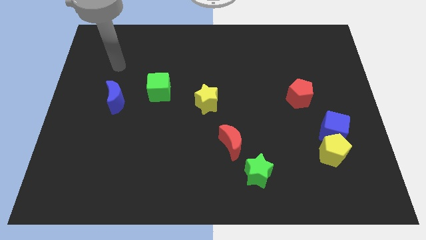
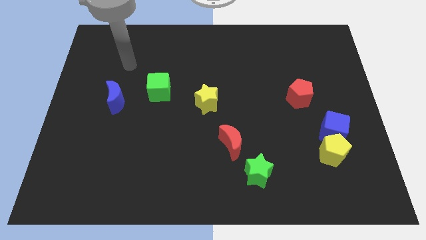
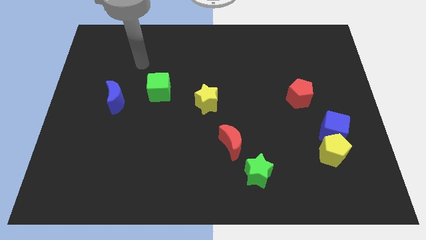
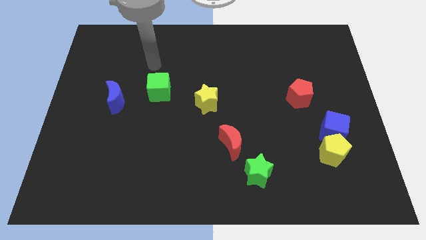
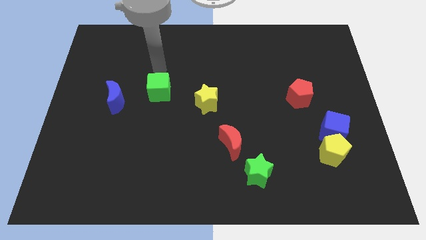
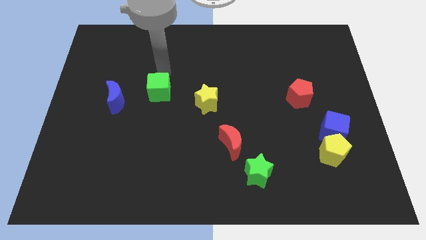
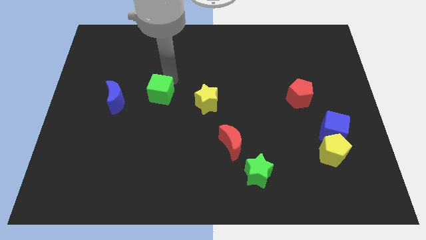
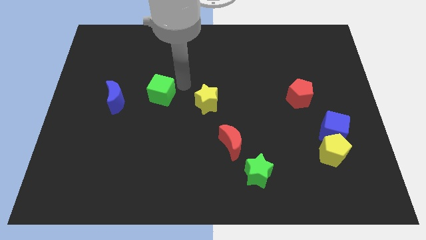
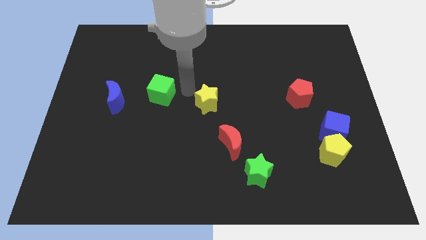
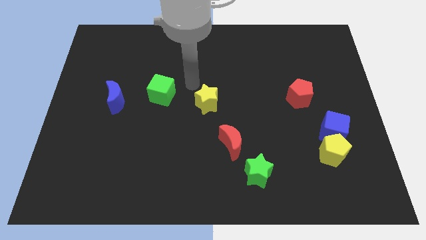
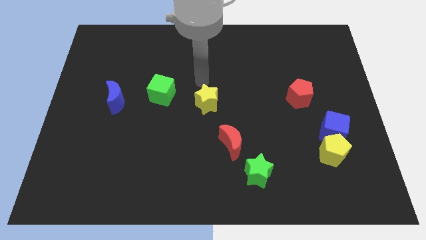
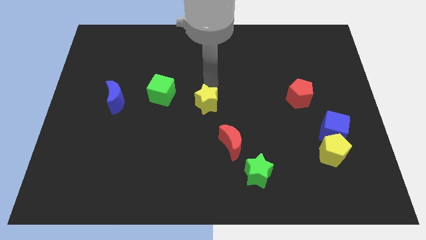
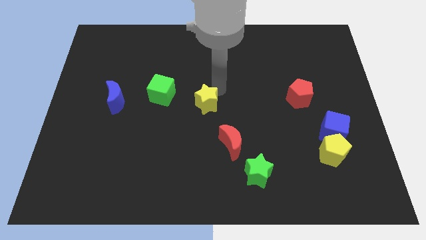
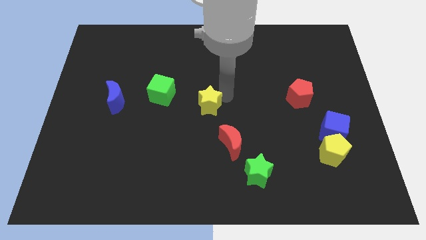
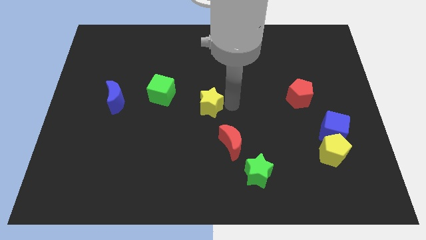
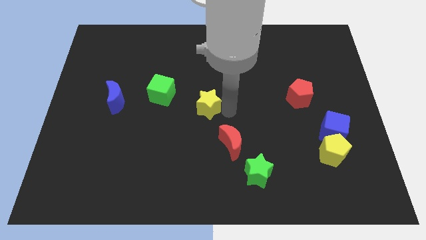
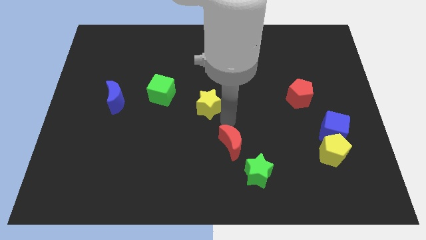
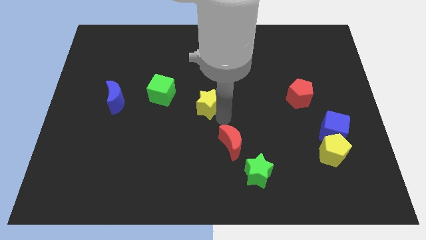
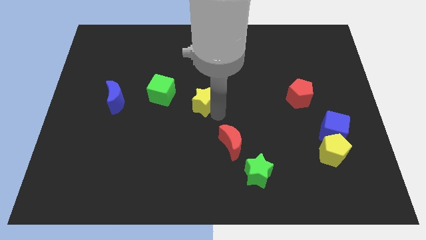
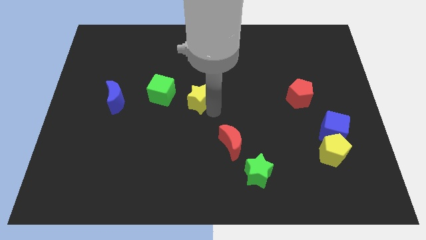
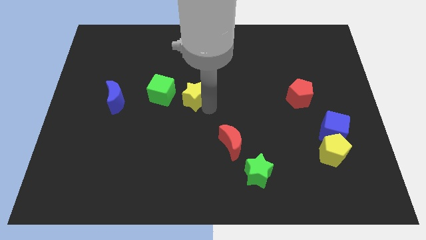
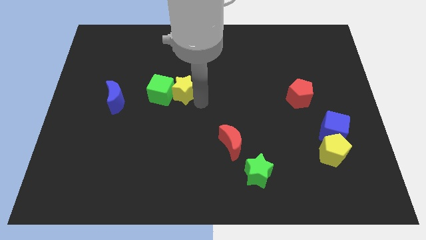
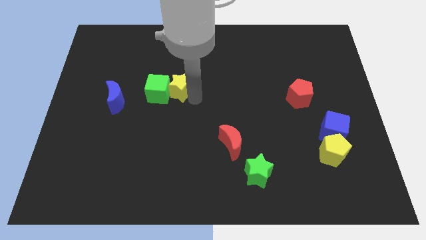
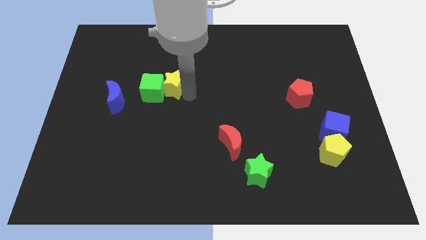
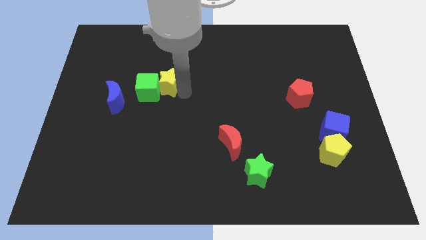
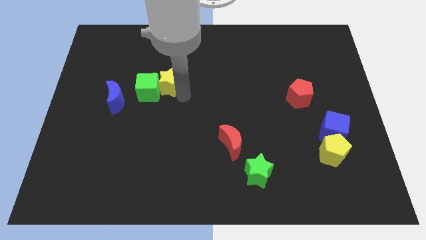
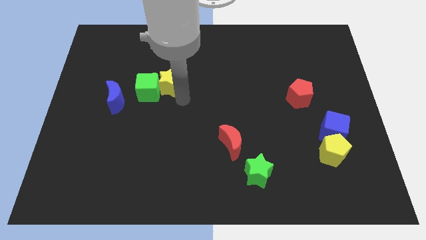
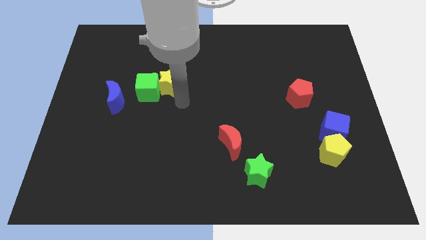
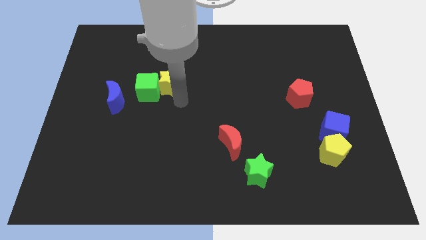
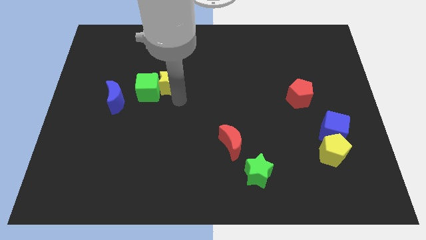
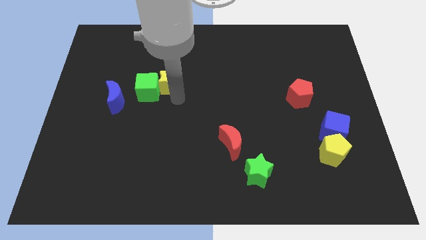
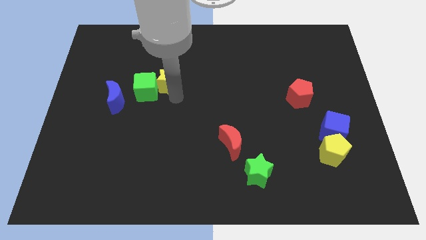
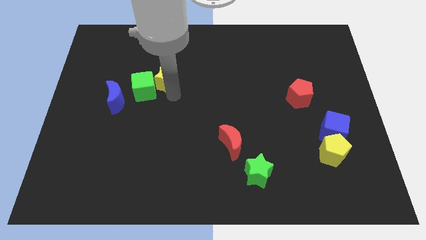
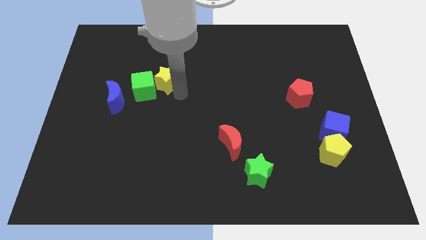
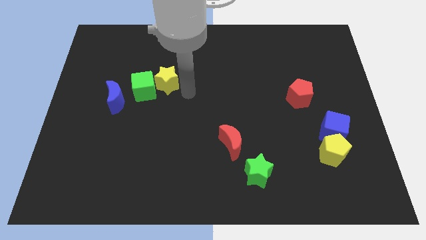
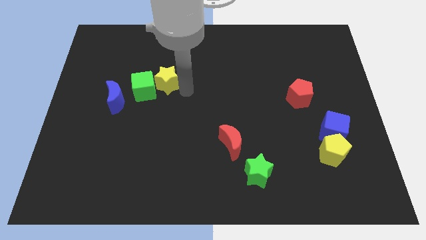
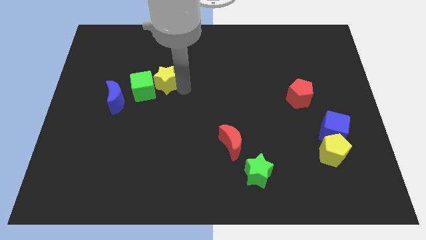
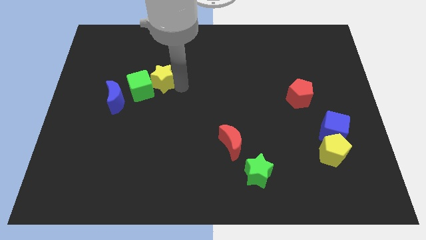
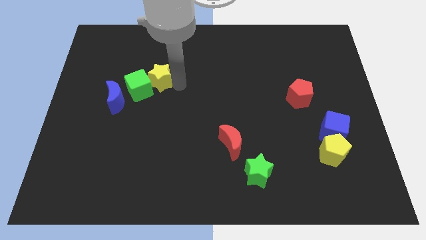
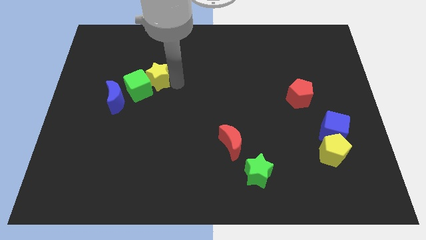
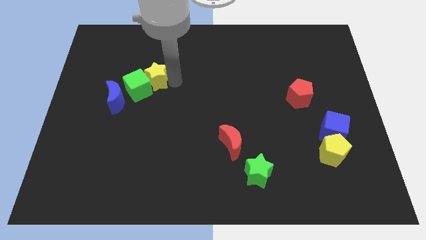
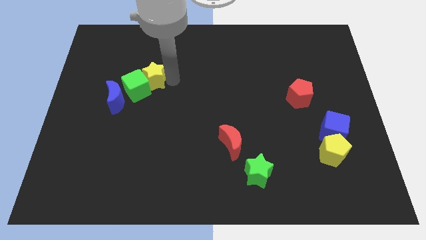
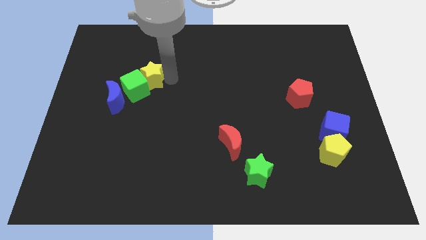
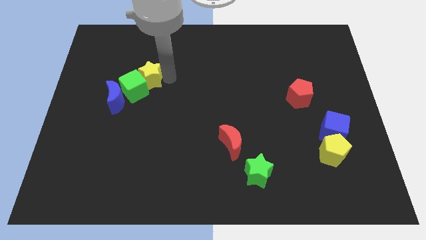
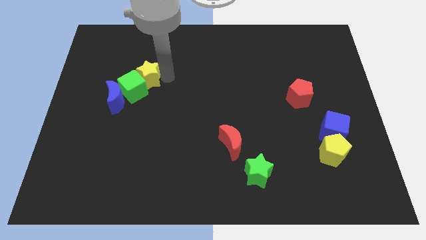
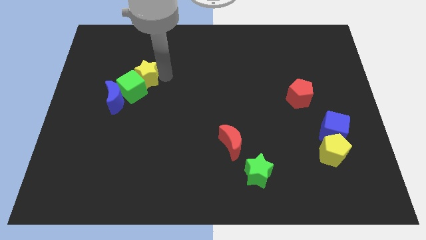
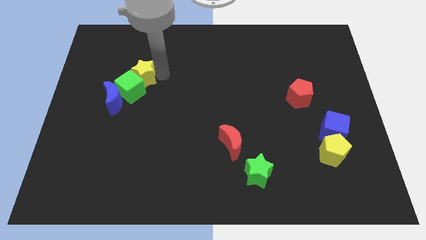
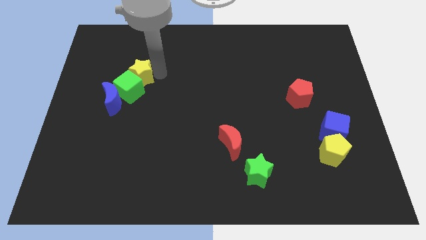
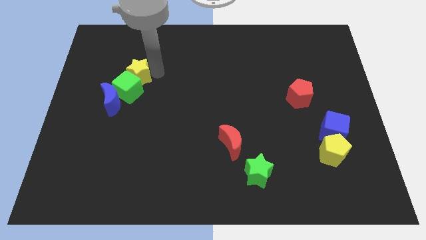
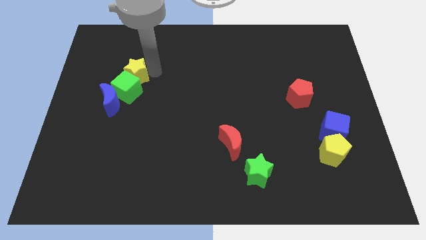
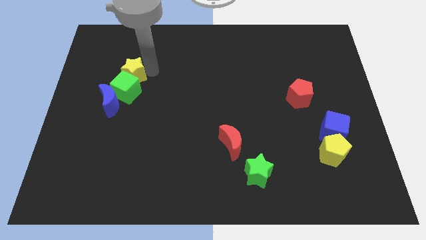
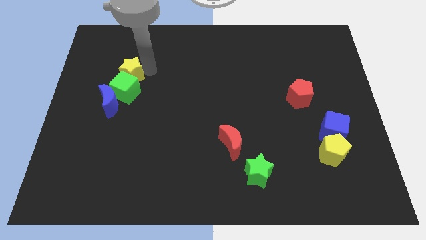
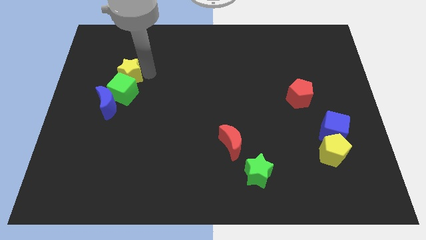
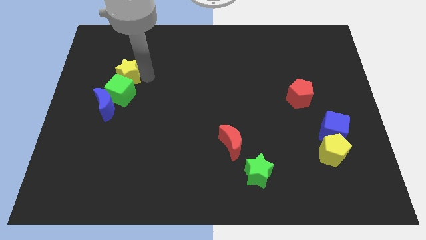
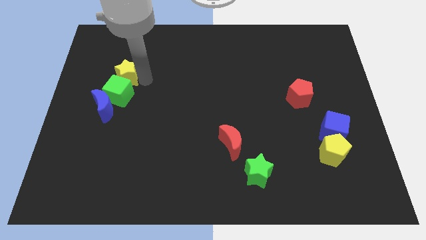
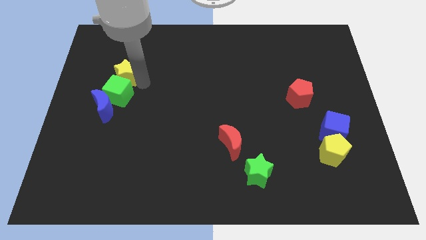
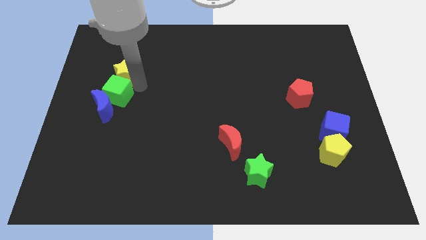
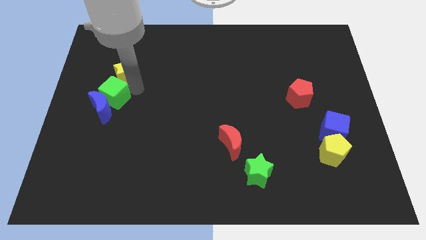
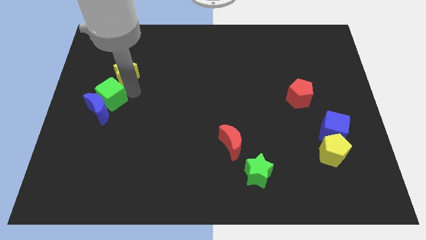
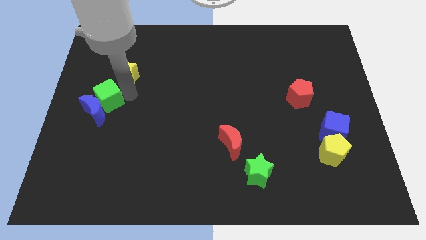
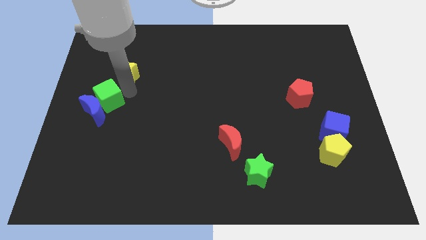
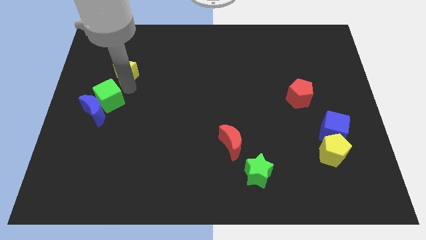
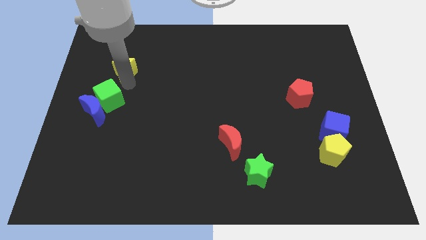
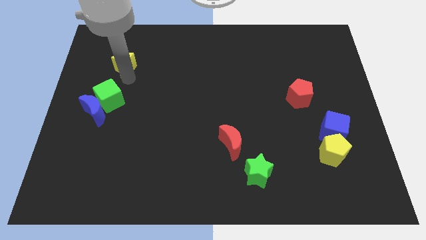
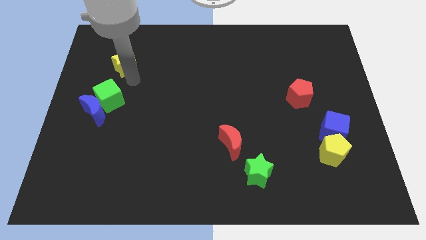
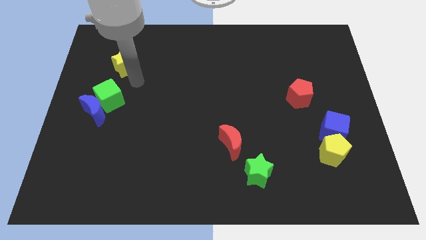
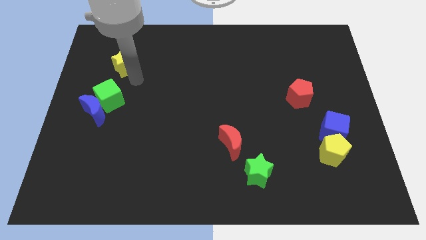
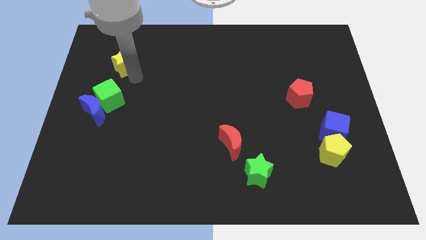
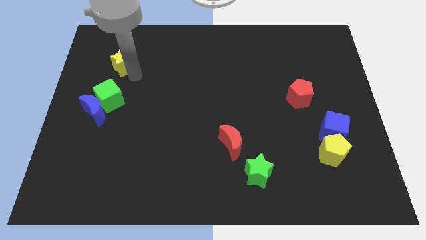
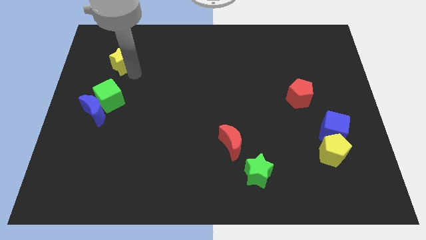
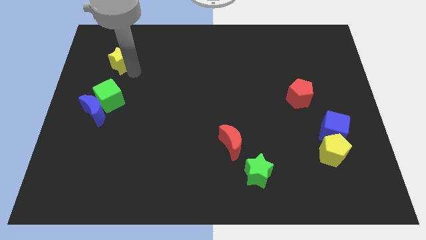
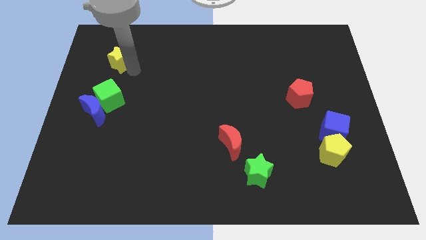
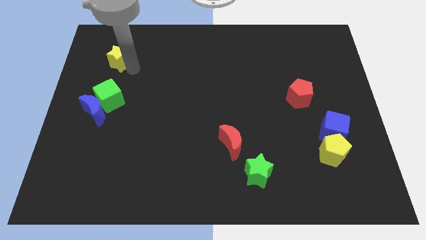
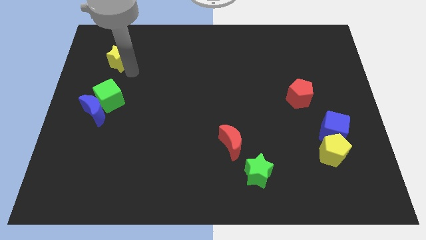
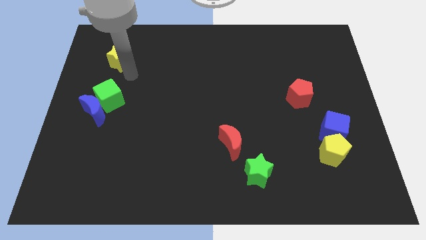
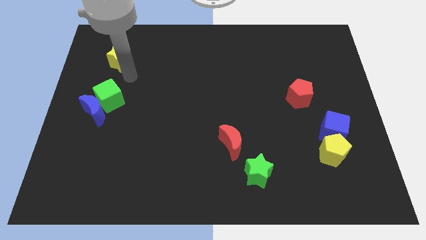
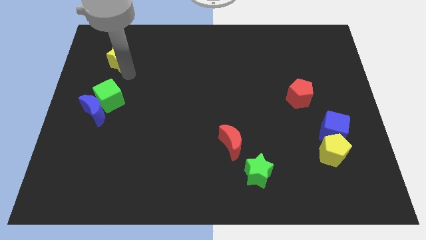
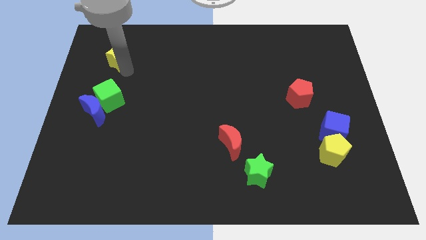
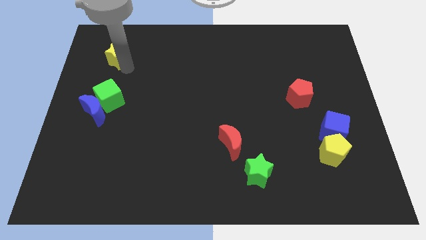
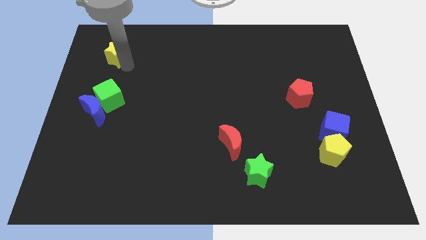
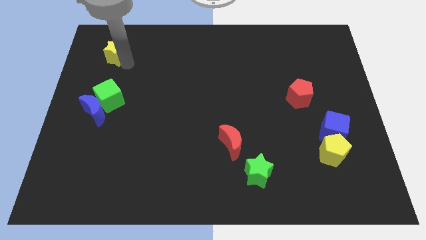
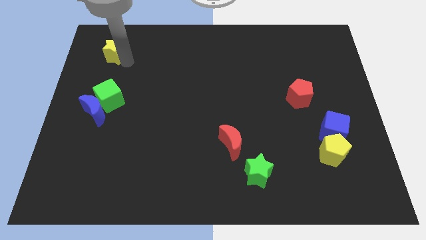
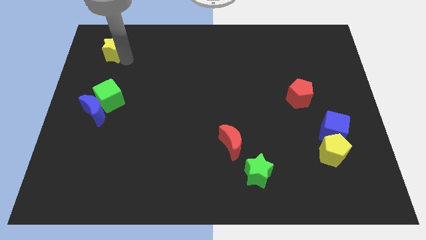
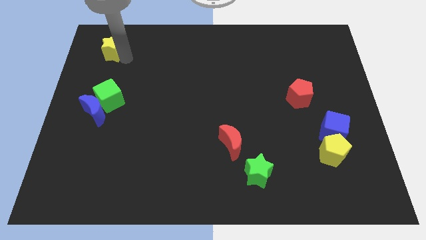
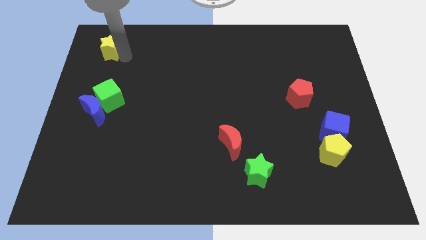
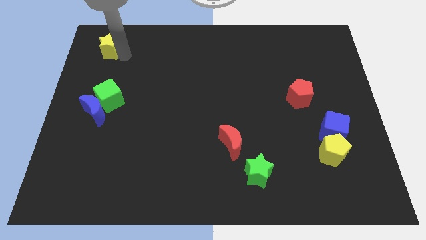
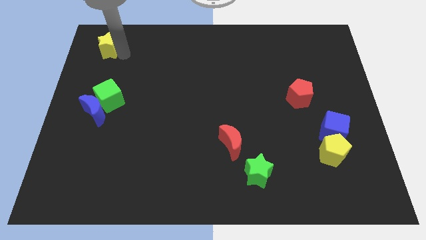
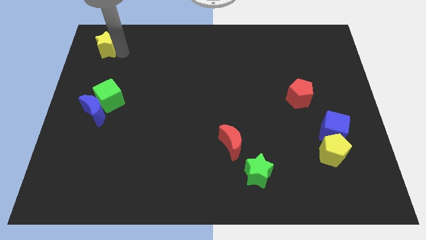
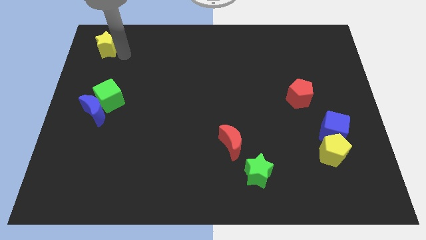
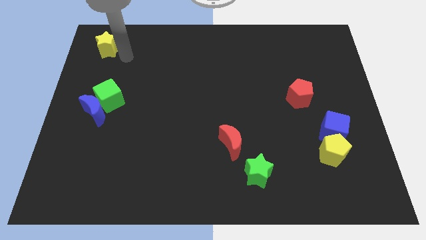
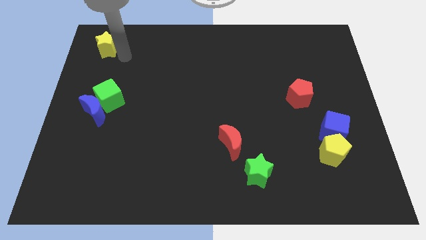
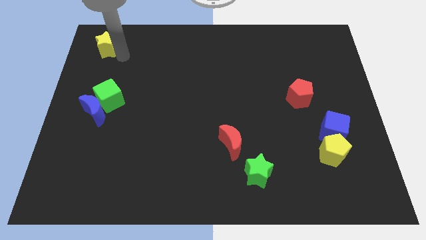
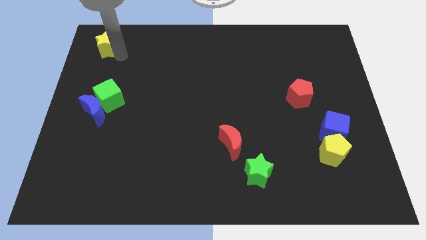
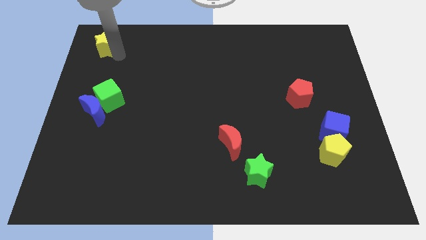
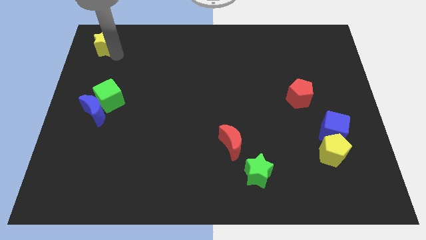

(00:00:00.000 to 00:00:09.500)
slide the yellow star to the top left
